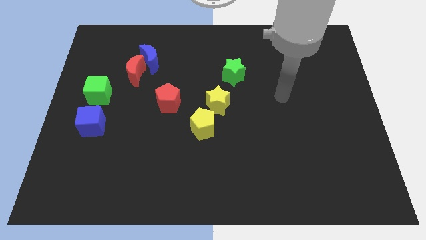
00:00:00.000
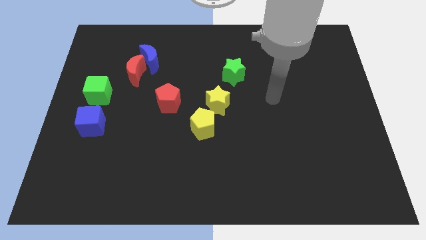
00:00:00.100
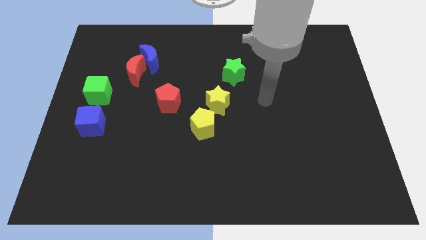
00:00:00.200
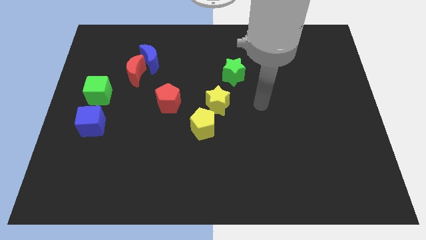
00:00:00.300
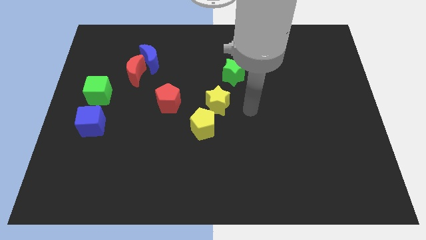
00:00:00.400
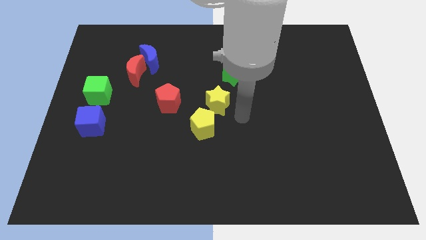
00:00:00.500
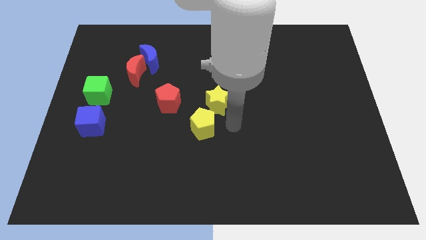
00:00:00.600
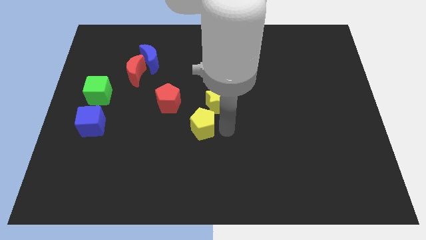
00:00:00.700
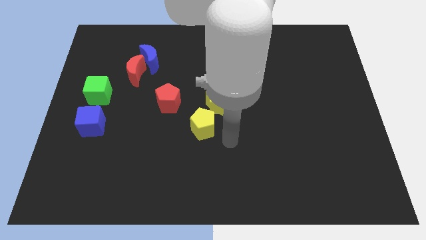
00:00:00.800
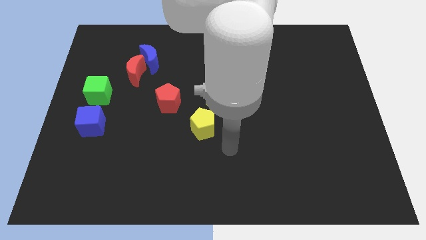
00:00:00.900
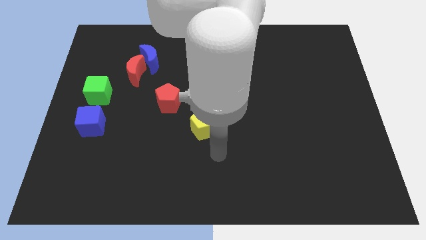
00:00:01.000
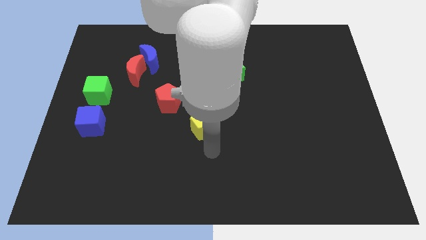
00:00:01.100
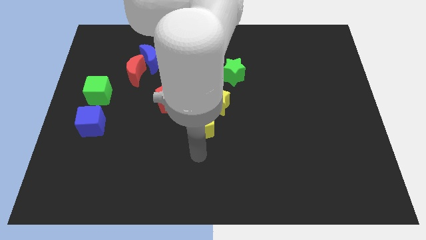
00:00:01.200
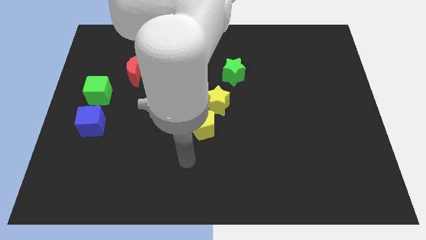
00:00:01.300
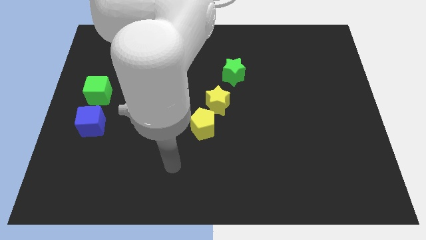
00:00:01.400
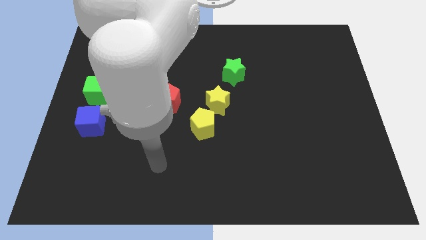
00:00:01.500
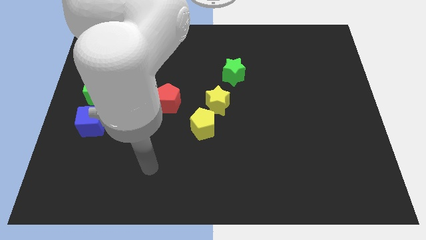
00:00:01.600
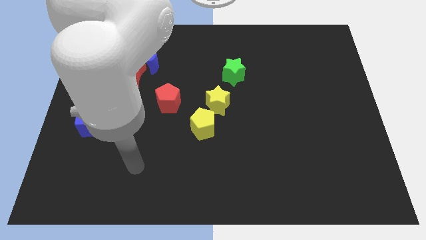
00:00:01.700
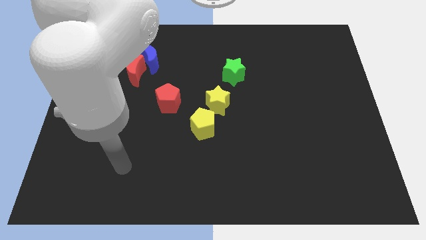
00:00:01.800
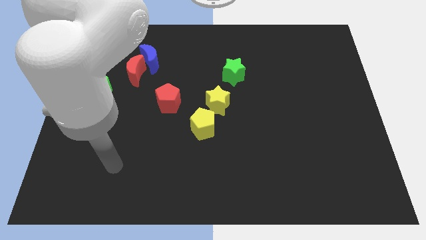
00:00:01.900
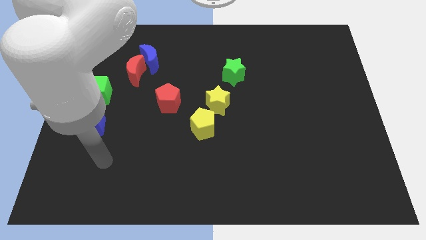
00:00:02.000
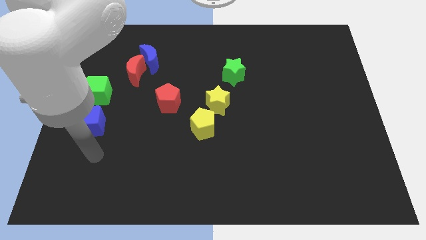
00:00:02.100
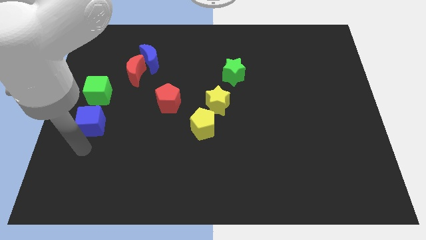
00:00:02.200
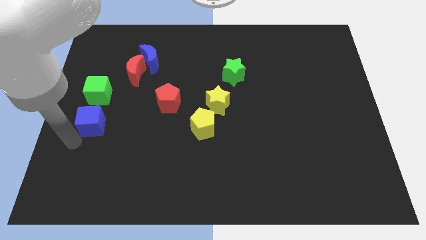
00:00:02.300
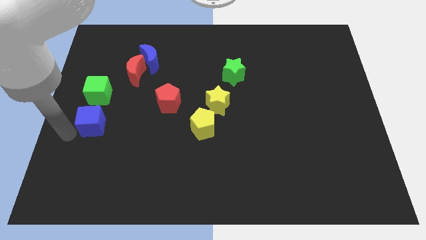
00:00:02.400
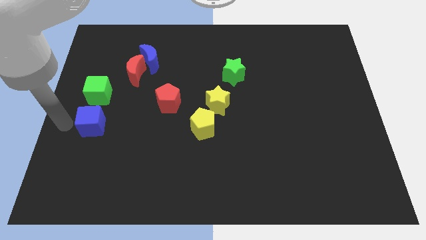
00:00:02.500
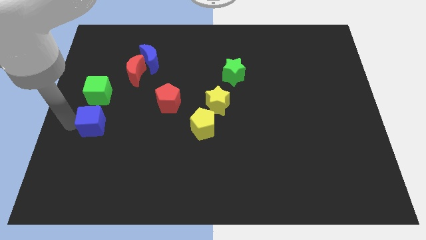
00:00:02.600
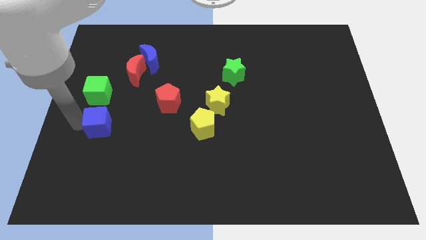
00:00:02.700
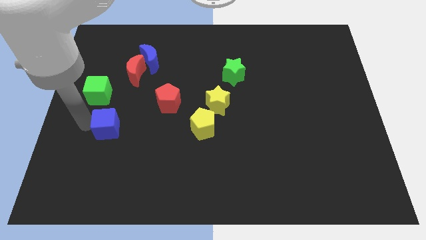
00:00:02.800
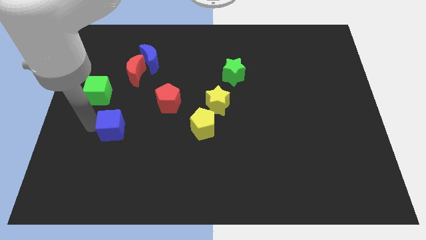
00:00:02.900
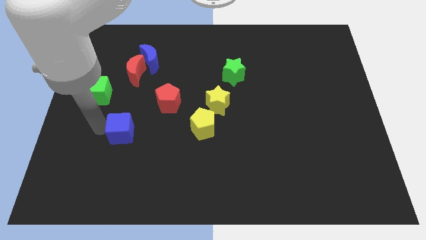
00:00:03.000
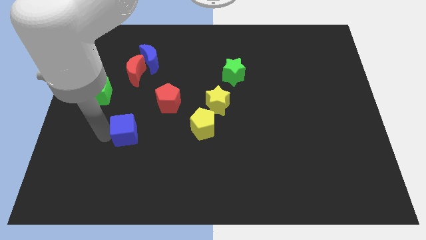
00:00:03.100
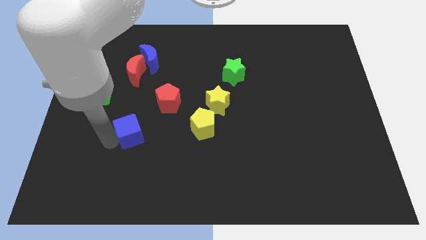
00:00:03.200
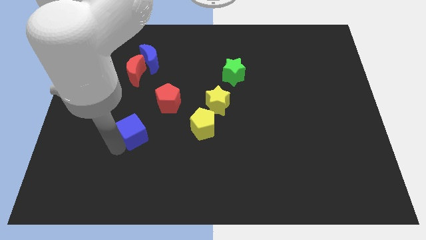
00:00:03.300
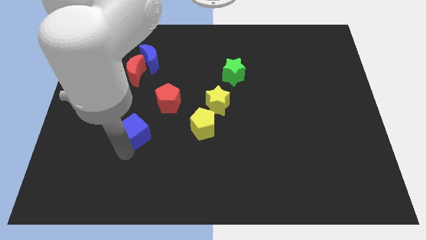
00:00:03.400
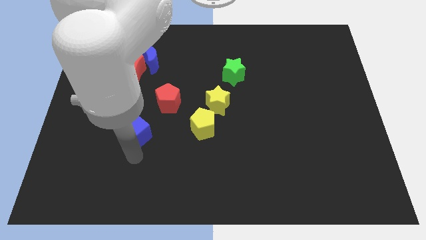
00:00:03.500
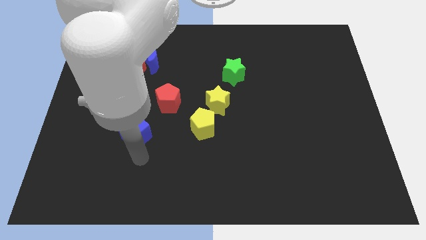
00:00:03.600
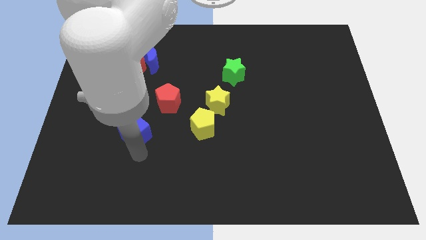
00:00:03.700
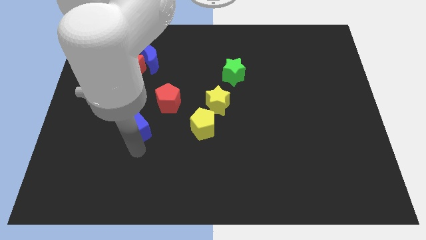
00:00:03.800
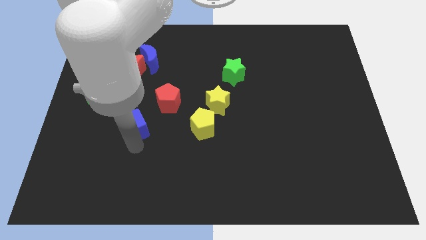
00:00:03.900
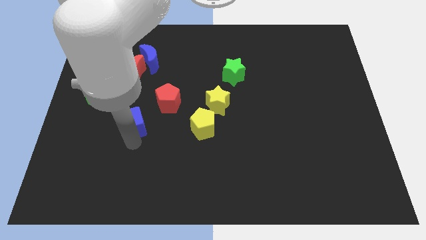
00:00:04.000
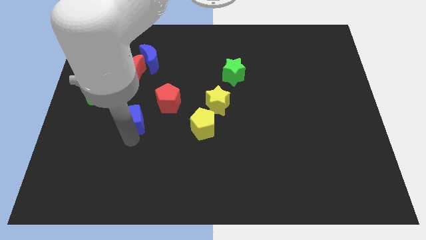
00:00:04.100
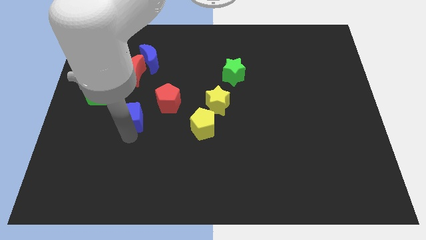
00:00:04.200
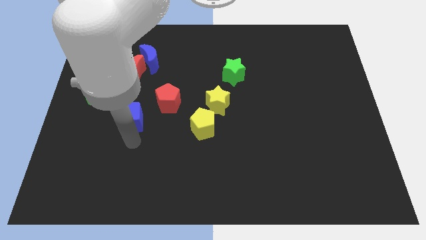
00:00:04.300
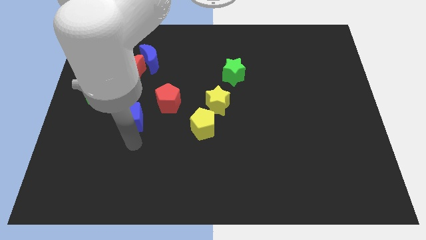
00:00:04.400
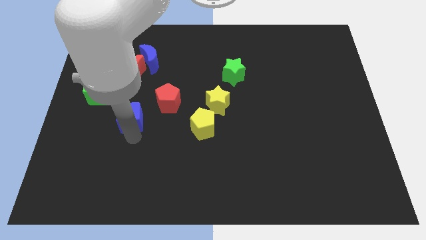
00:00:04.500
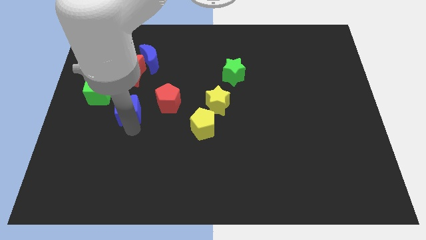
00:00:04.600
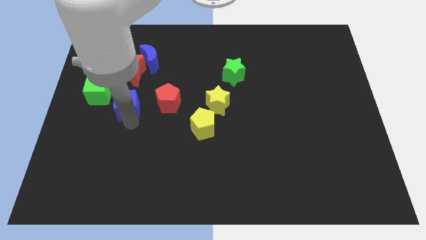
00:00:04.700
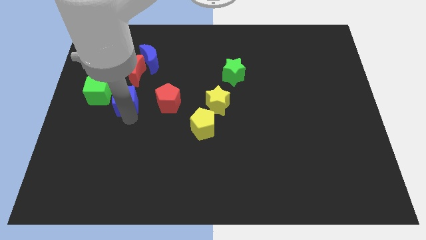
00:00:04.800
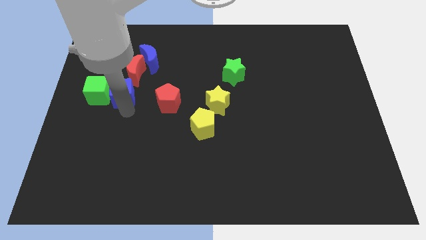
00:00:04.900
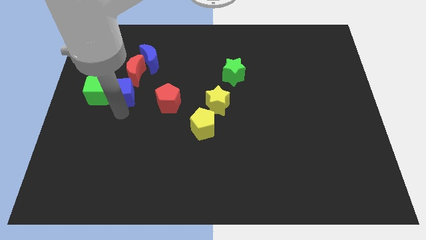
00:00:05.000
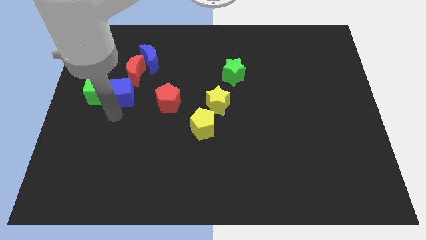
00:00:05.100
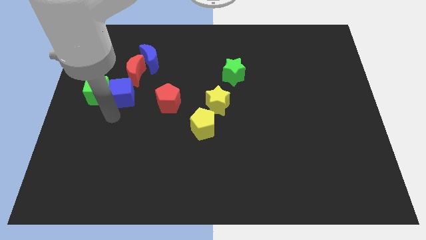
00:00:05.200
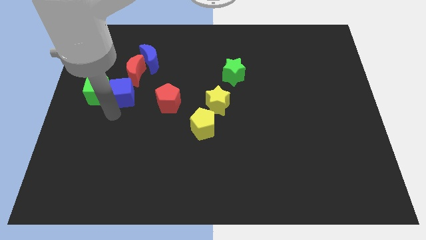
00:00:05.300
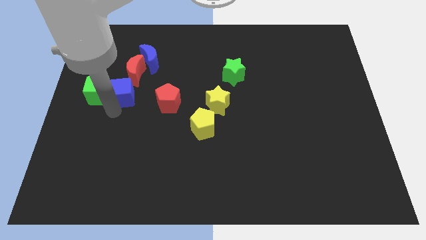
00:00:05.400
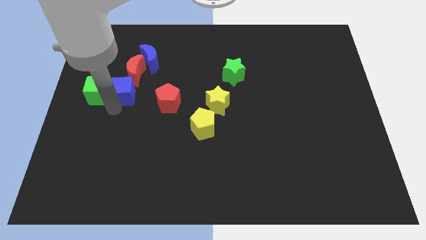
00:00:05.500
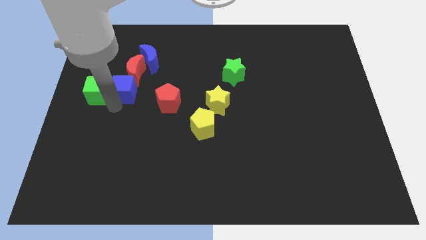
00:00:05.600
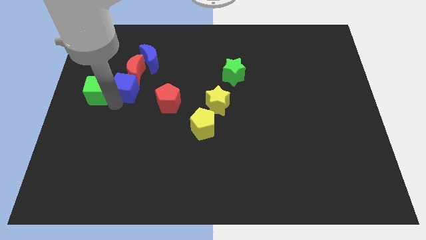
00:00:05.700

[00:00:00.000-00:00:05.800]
put the blue cube towards the red moon

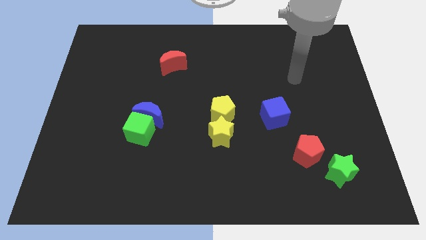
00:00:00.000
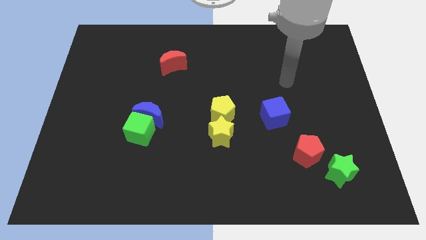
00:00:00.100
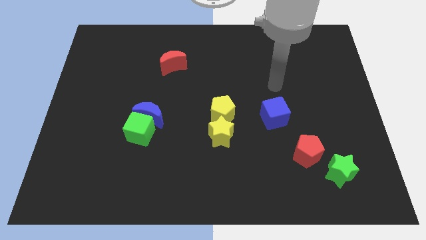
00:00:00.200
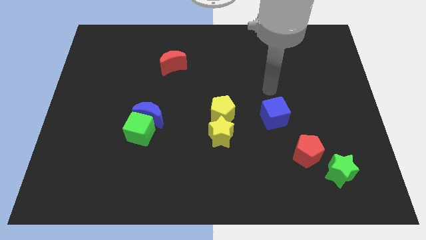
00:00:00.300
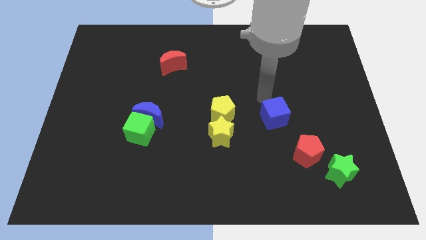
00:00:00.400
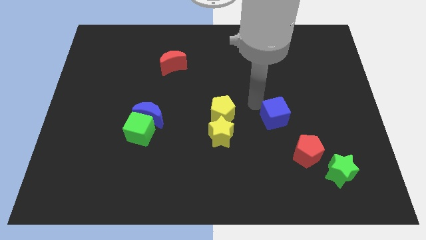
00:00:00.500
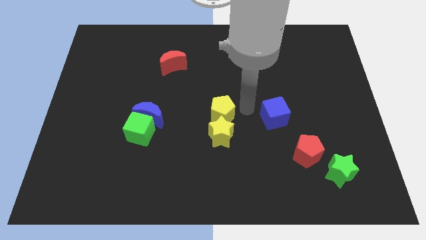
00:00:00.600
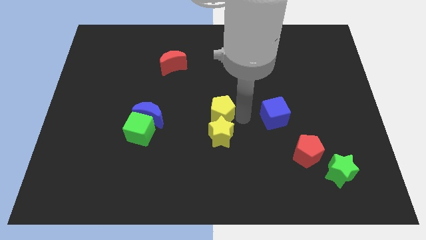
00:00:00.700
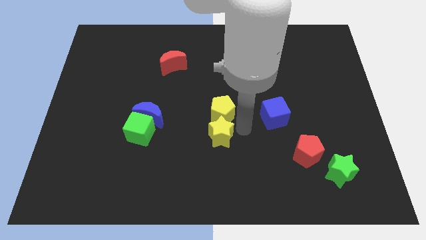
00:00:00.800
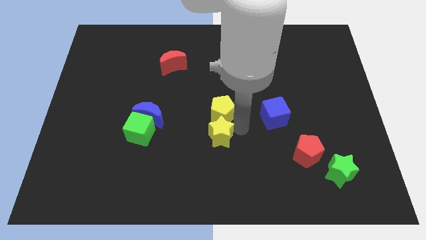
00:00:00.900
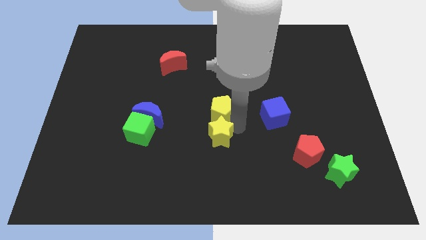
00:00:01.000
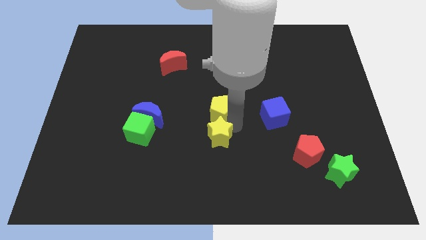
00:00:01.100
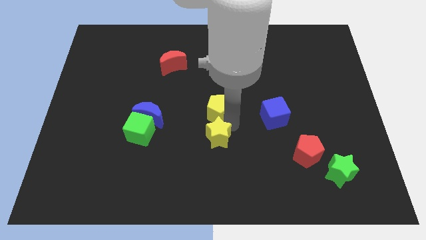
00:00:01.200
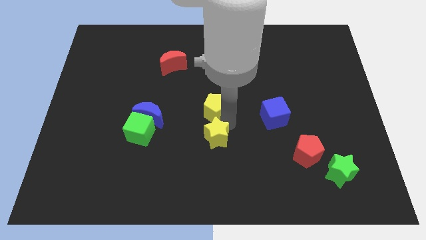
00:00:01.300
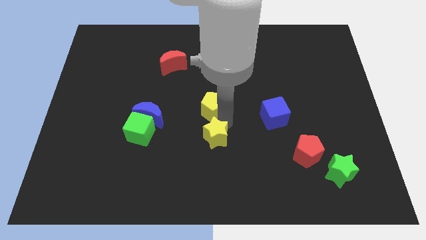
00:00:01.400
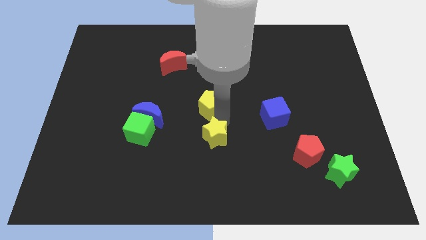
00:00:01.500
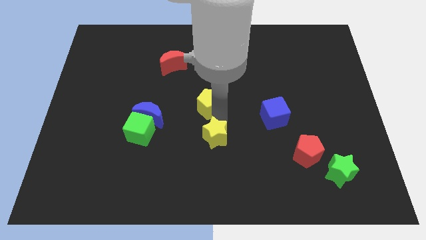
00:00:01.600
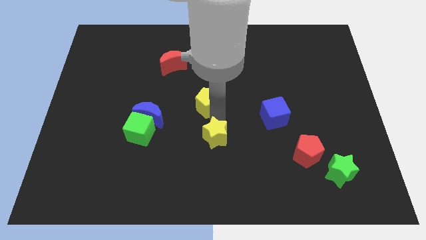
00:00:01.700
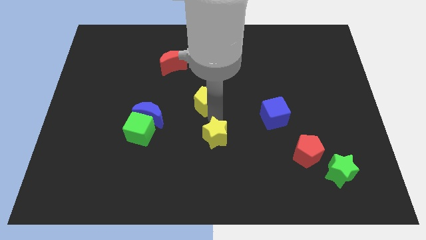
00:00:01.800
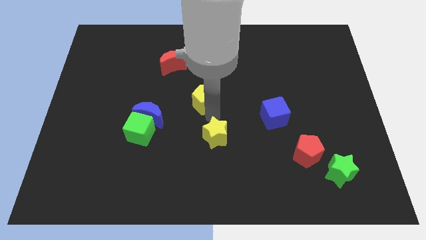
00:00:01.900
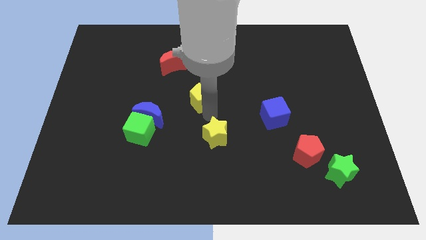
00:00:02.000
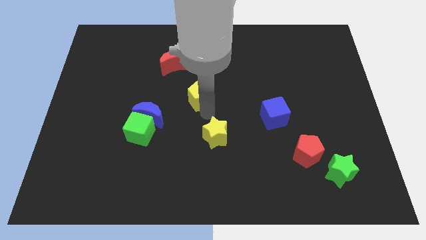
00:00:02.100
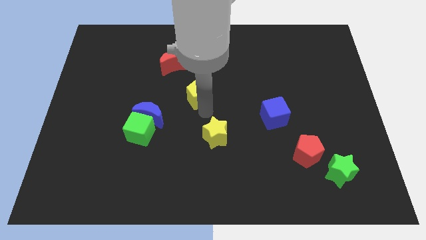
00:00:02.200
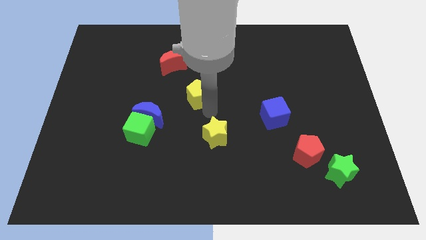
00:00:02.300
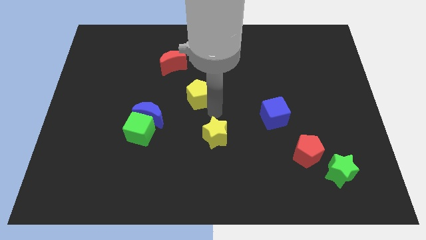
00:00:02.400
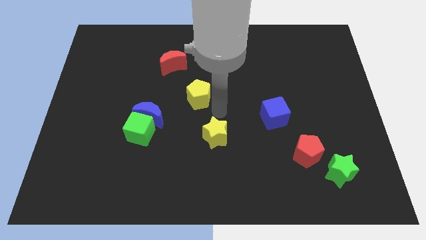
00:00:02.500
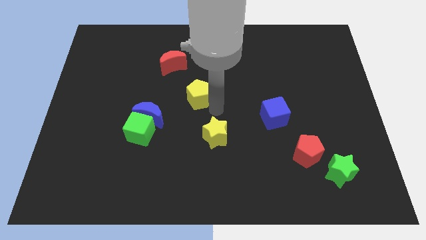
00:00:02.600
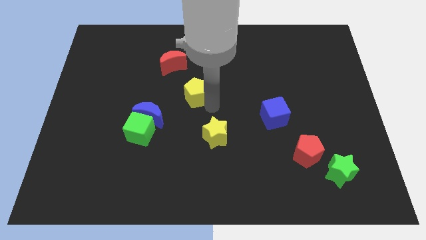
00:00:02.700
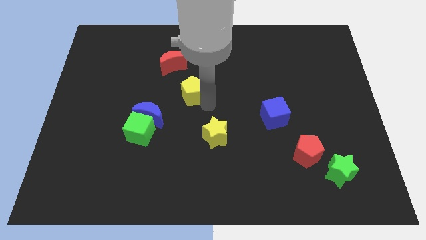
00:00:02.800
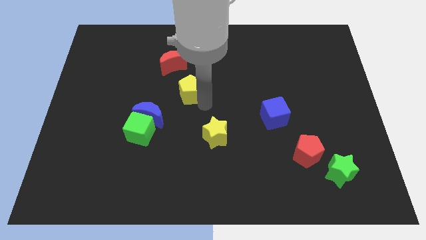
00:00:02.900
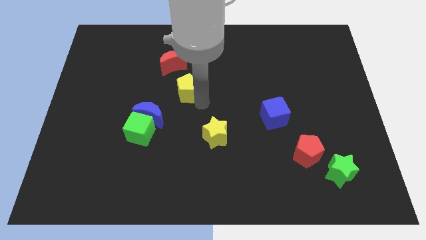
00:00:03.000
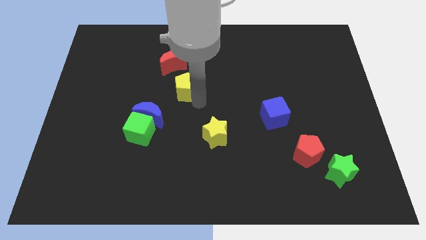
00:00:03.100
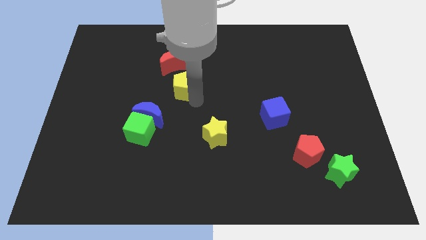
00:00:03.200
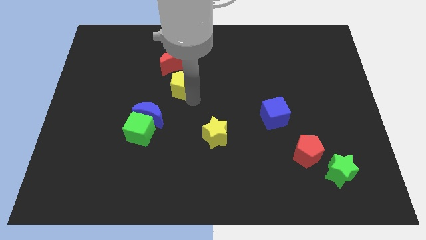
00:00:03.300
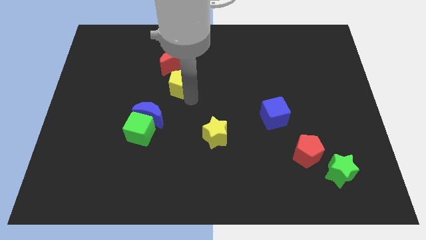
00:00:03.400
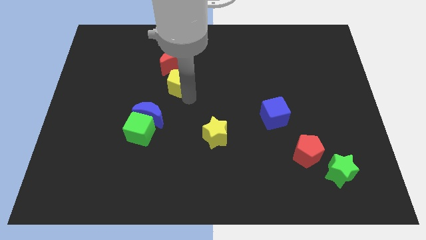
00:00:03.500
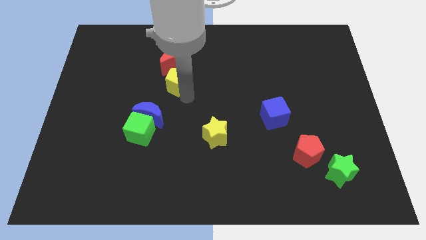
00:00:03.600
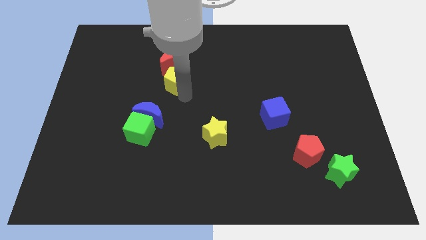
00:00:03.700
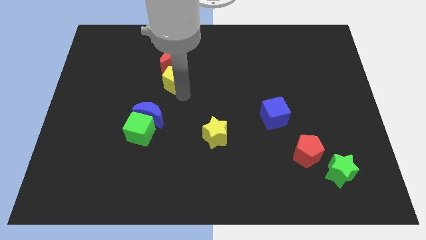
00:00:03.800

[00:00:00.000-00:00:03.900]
put the yellow pentagon to the red moon
